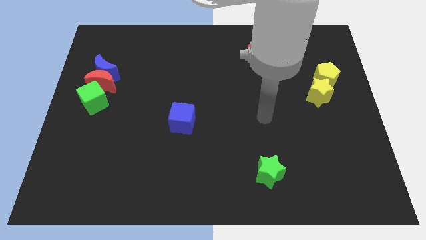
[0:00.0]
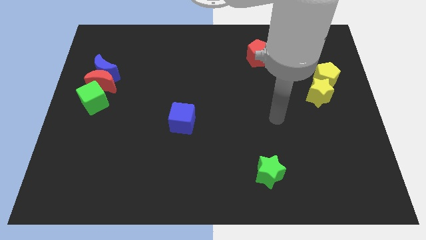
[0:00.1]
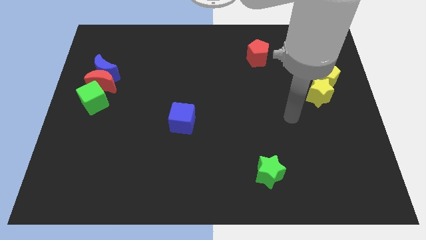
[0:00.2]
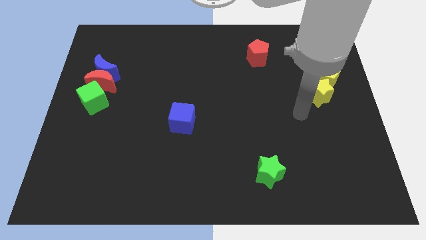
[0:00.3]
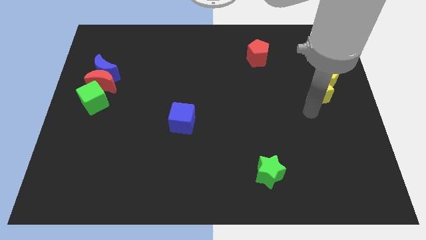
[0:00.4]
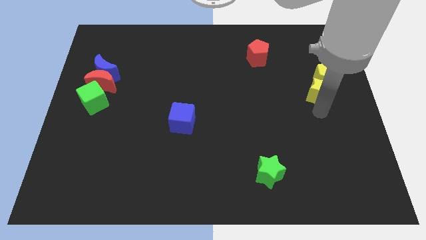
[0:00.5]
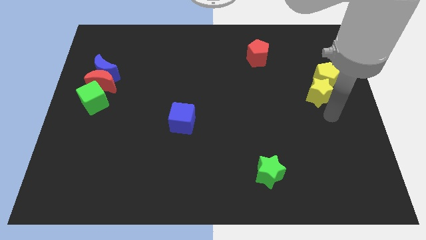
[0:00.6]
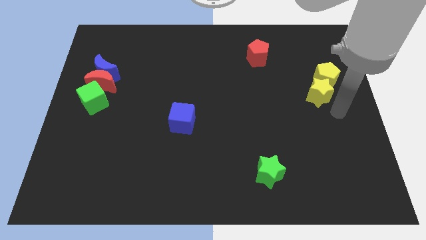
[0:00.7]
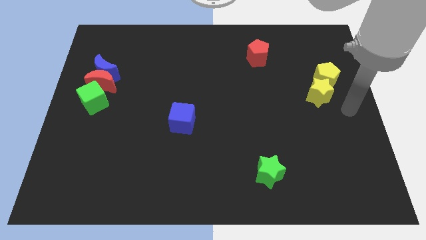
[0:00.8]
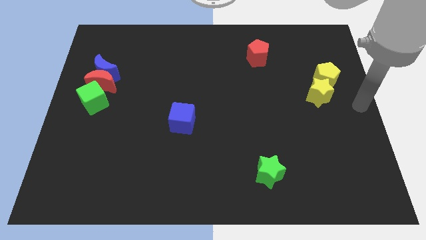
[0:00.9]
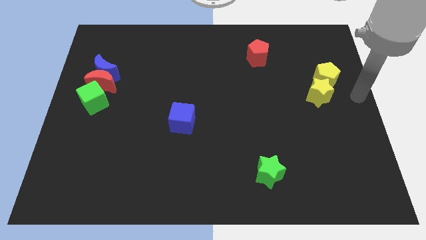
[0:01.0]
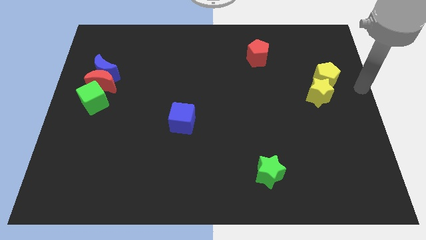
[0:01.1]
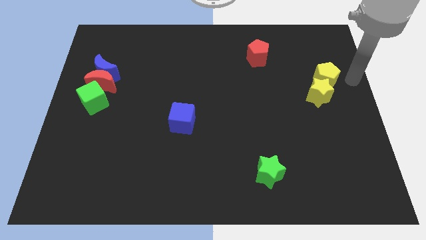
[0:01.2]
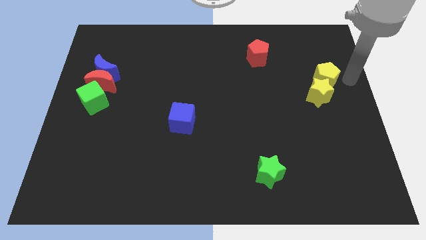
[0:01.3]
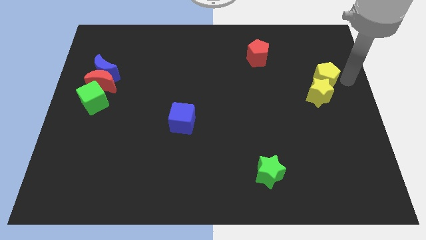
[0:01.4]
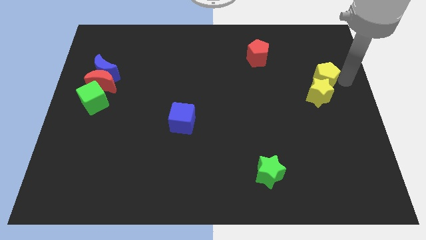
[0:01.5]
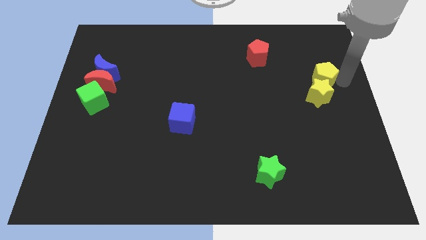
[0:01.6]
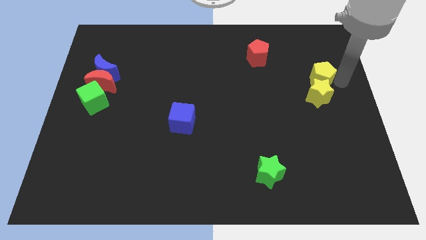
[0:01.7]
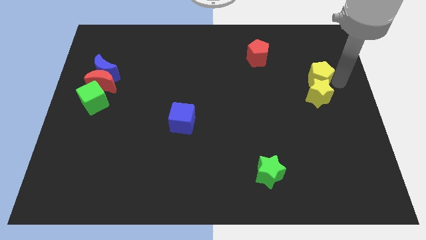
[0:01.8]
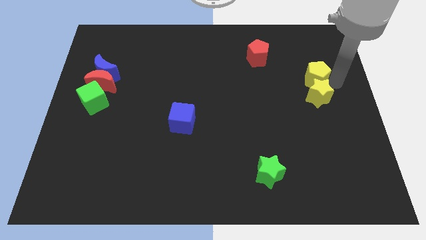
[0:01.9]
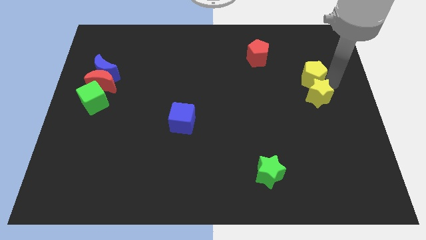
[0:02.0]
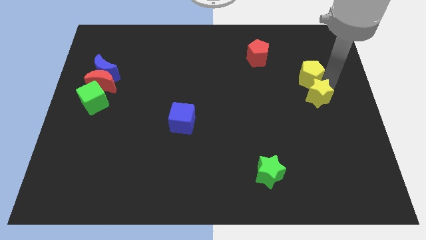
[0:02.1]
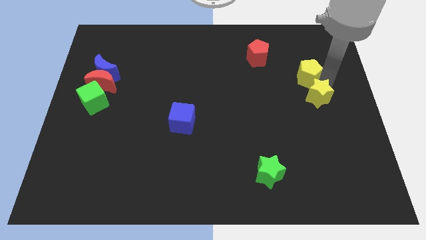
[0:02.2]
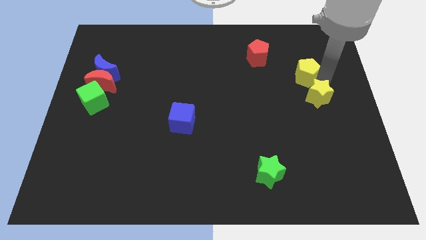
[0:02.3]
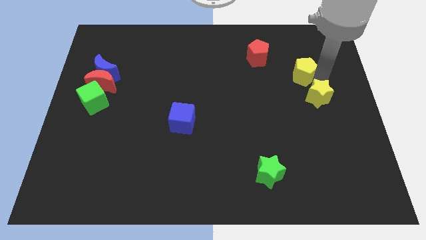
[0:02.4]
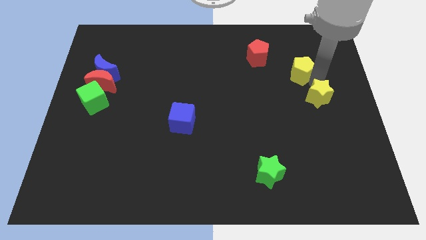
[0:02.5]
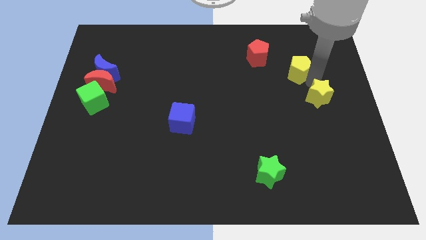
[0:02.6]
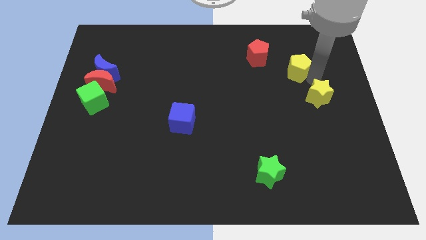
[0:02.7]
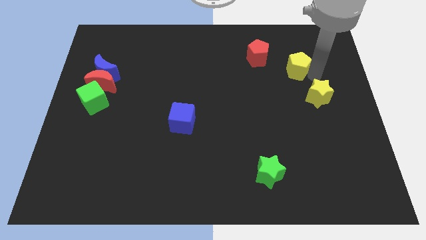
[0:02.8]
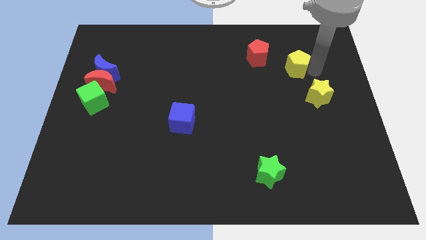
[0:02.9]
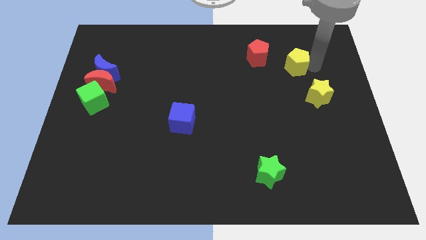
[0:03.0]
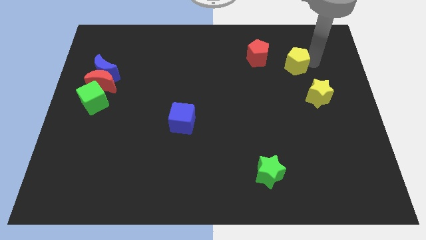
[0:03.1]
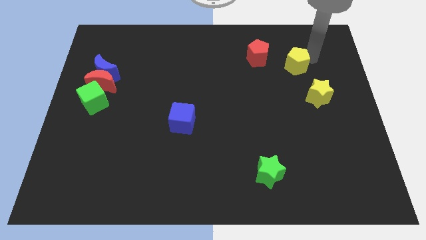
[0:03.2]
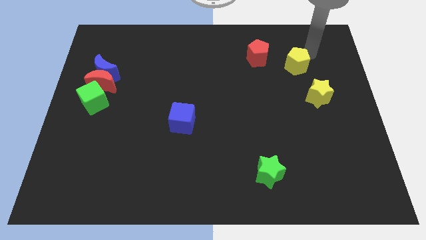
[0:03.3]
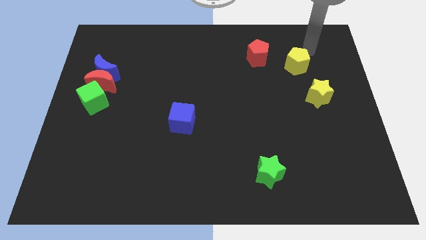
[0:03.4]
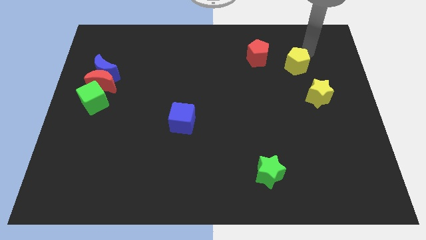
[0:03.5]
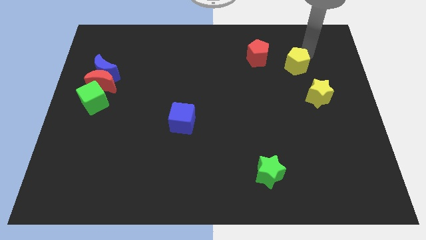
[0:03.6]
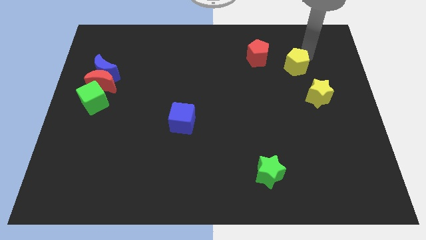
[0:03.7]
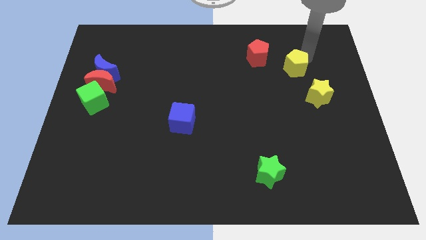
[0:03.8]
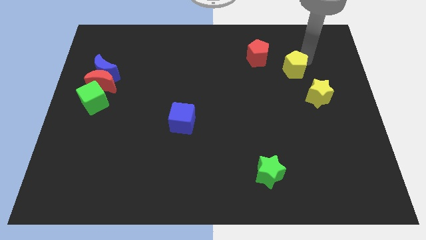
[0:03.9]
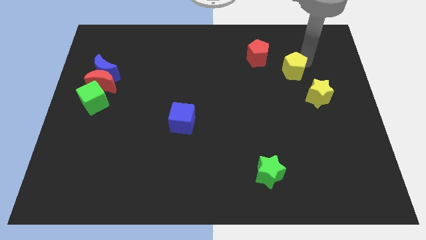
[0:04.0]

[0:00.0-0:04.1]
push the yellow pentagon a little bit to the left

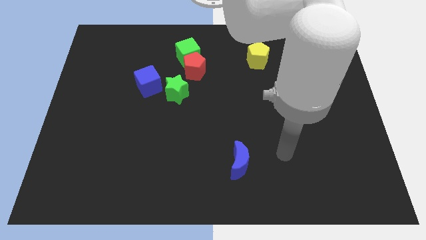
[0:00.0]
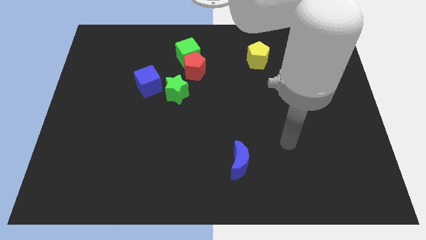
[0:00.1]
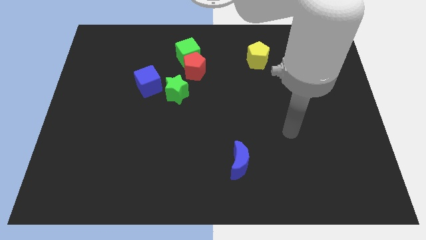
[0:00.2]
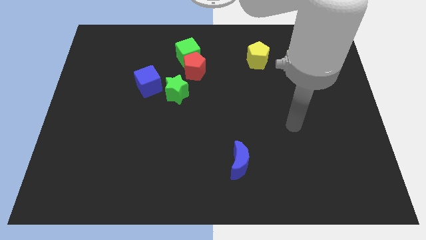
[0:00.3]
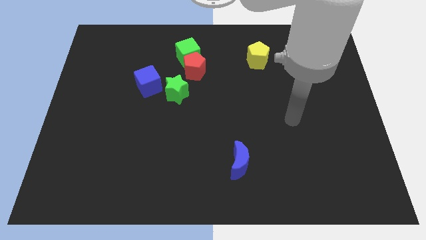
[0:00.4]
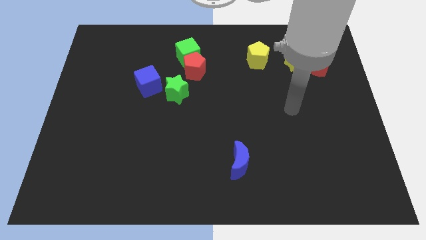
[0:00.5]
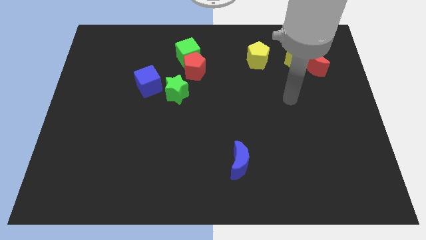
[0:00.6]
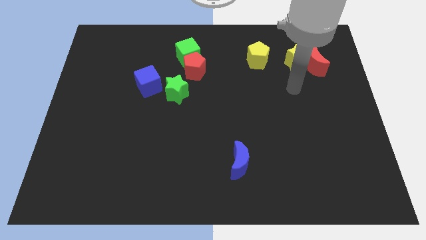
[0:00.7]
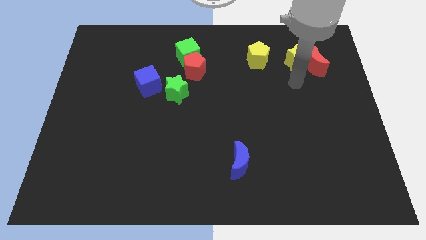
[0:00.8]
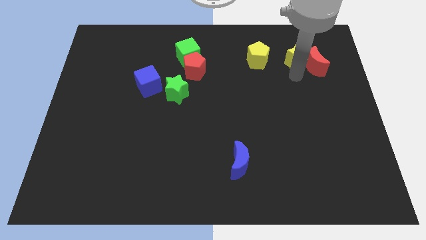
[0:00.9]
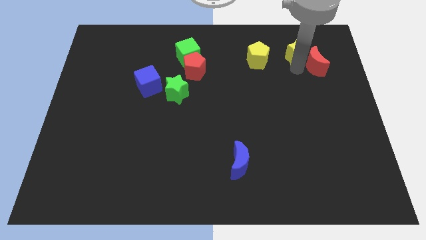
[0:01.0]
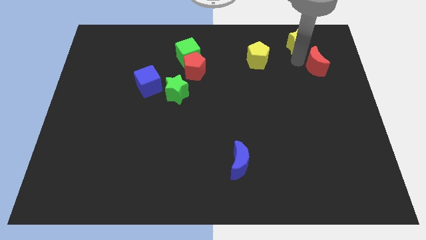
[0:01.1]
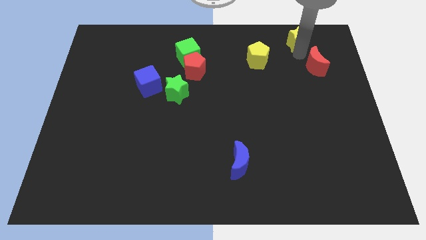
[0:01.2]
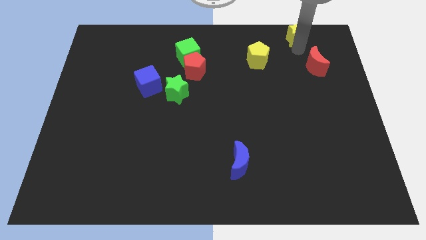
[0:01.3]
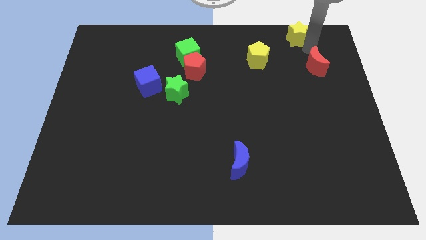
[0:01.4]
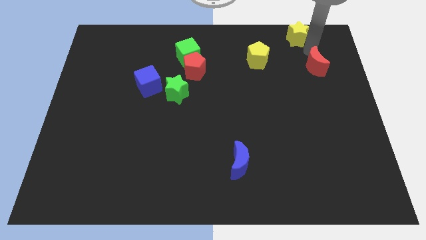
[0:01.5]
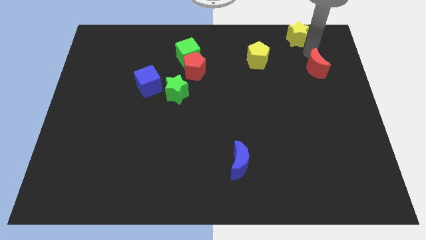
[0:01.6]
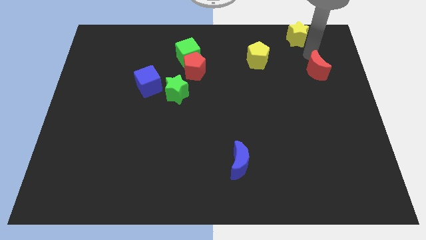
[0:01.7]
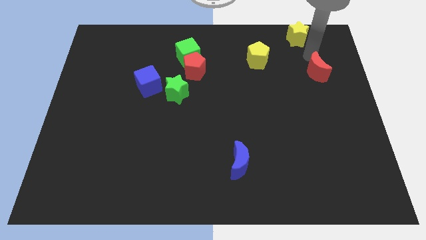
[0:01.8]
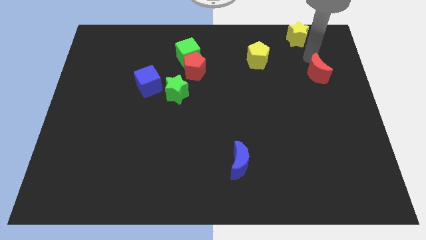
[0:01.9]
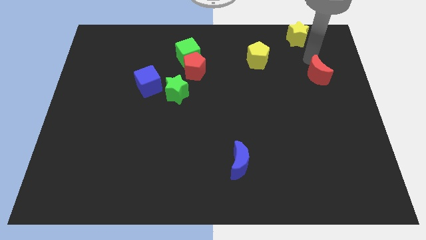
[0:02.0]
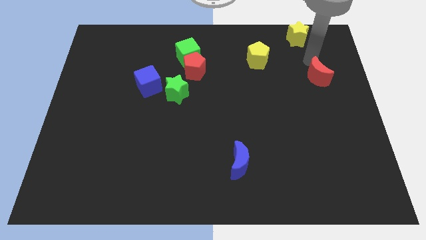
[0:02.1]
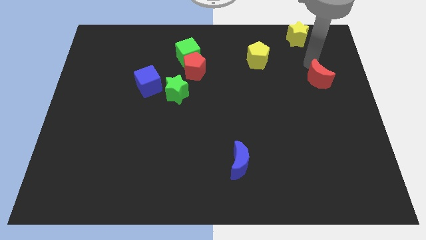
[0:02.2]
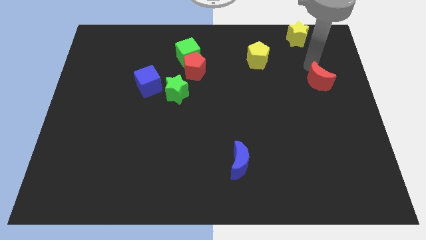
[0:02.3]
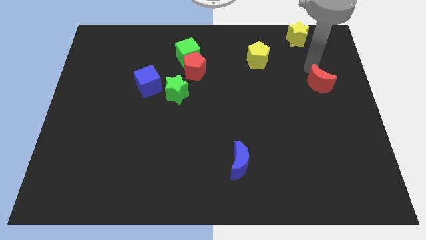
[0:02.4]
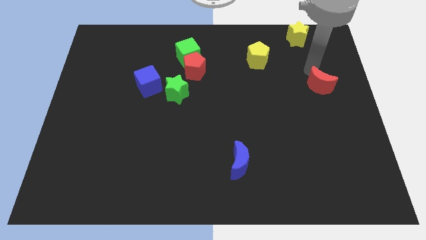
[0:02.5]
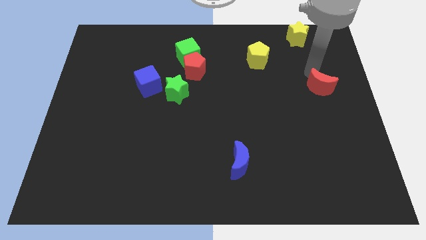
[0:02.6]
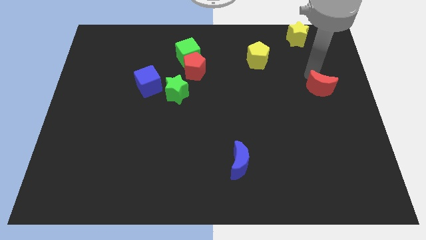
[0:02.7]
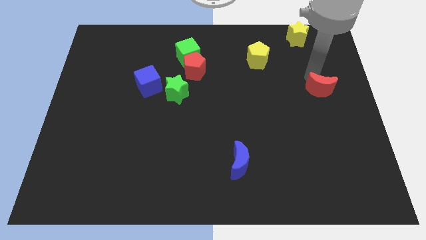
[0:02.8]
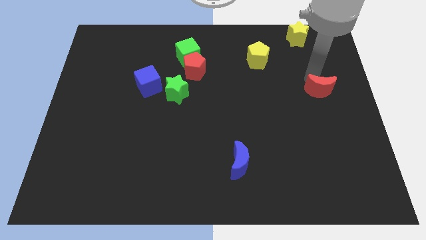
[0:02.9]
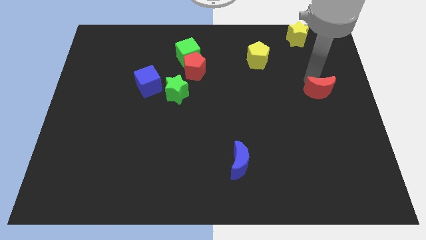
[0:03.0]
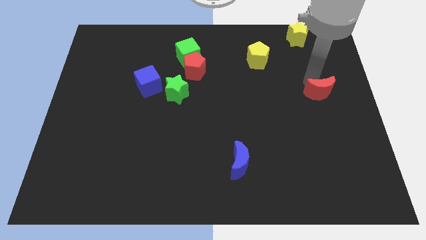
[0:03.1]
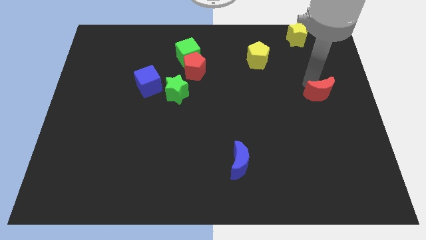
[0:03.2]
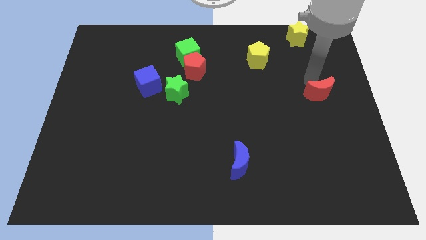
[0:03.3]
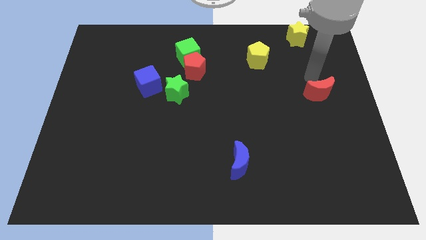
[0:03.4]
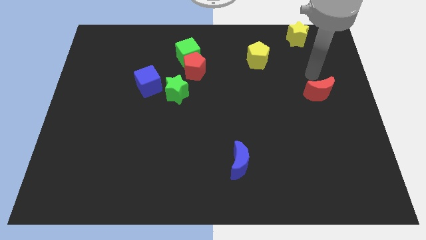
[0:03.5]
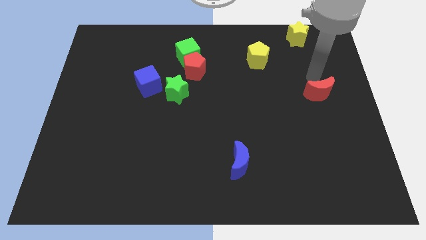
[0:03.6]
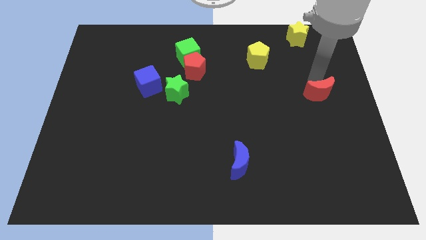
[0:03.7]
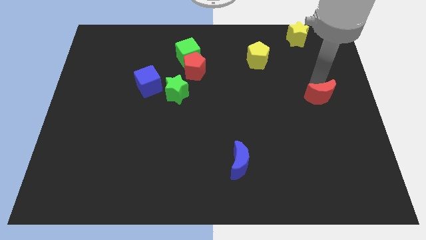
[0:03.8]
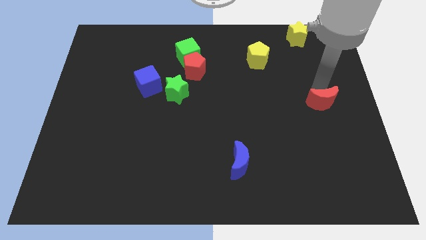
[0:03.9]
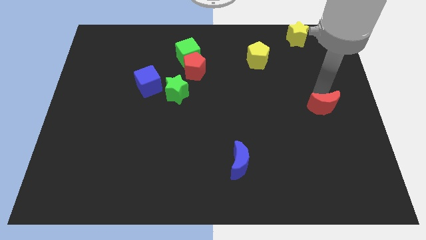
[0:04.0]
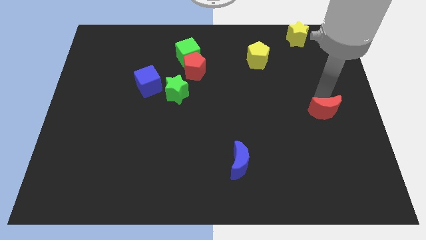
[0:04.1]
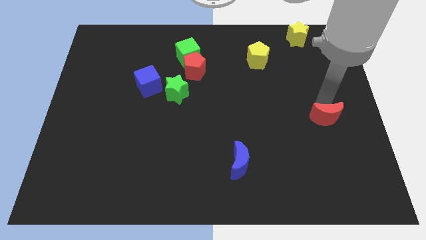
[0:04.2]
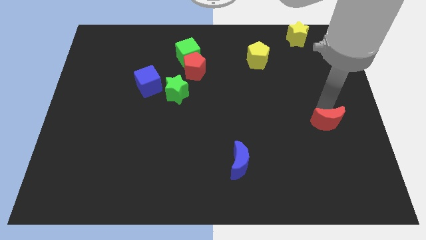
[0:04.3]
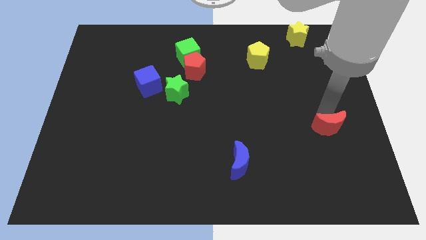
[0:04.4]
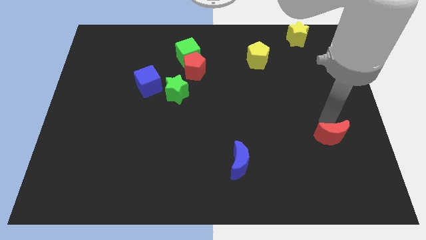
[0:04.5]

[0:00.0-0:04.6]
move the red moon down
